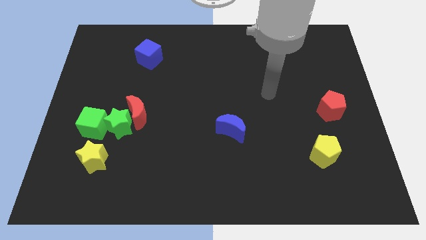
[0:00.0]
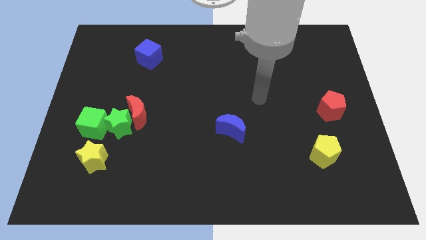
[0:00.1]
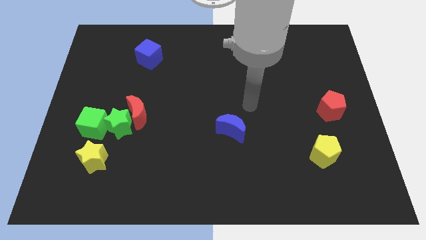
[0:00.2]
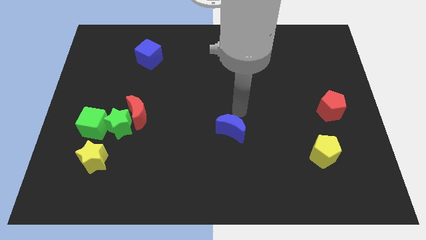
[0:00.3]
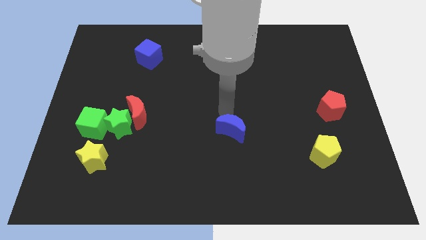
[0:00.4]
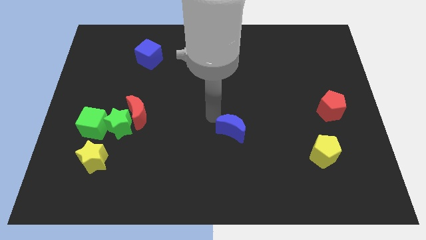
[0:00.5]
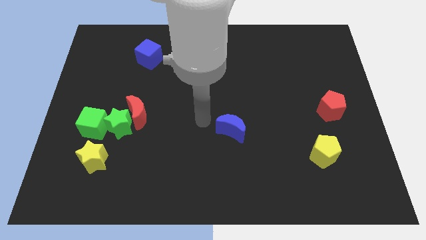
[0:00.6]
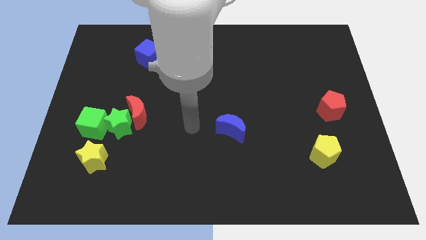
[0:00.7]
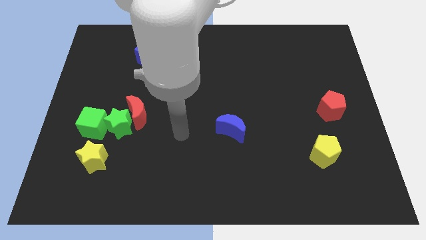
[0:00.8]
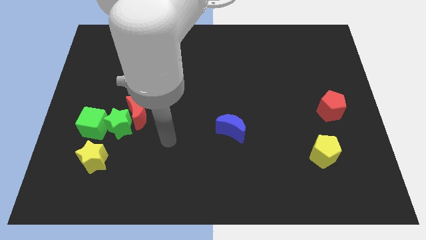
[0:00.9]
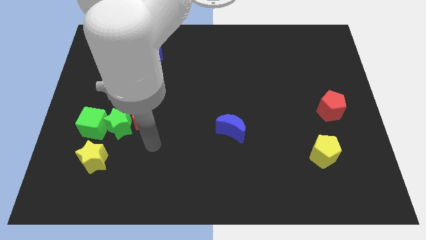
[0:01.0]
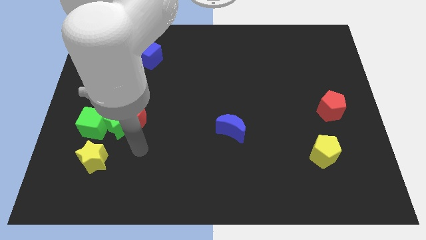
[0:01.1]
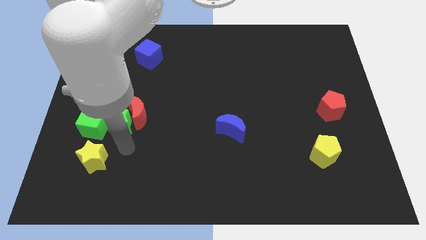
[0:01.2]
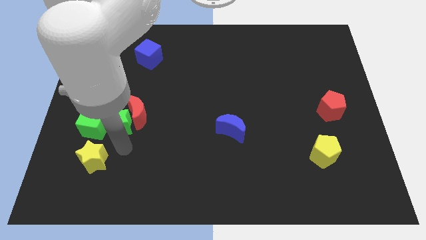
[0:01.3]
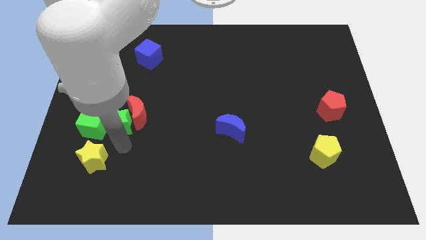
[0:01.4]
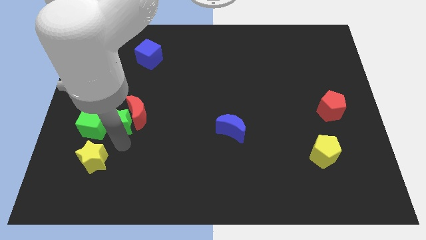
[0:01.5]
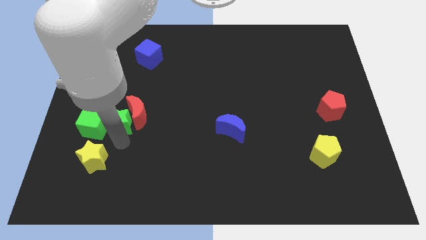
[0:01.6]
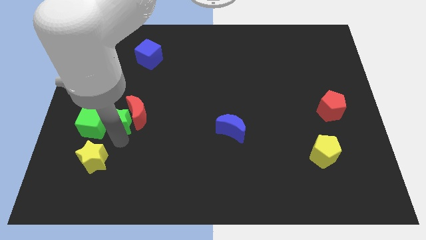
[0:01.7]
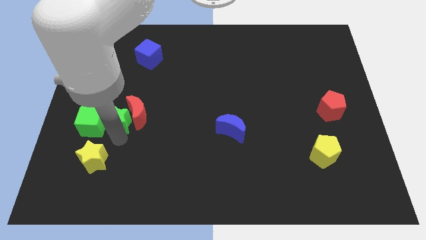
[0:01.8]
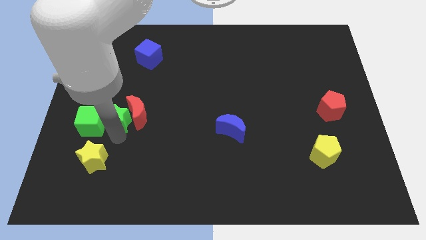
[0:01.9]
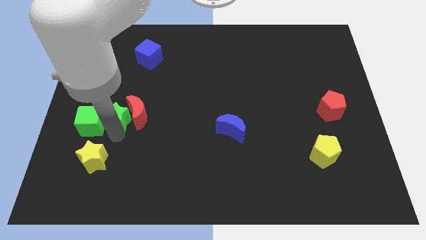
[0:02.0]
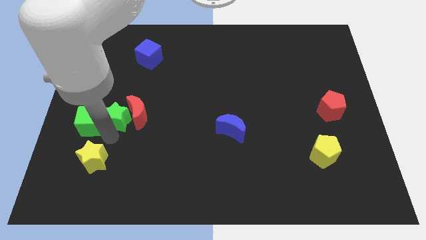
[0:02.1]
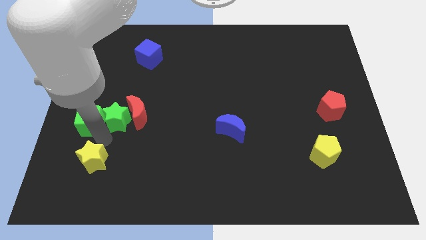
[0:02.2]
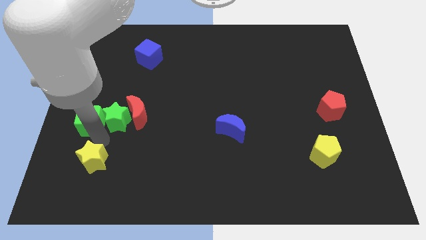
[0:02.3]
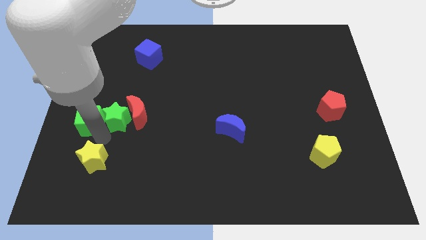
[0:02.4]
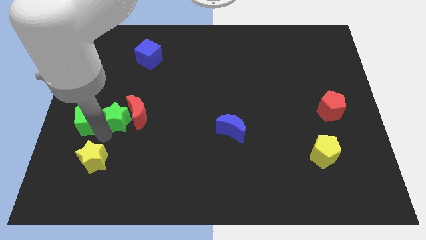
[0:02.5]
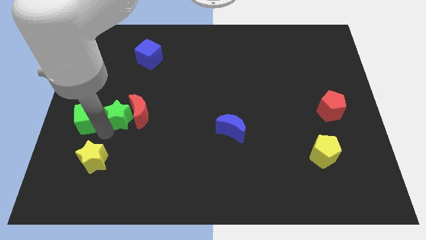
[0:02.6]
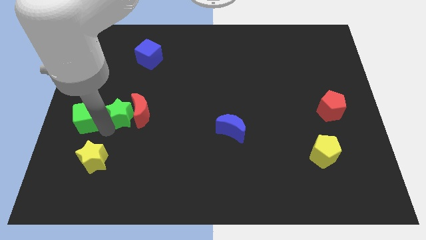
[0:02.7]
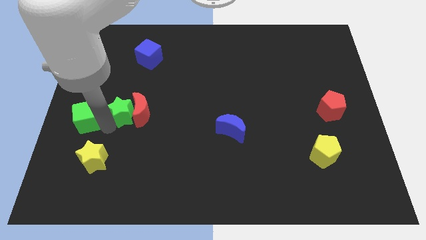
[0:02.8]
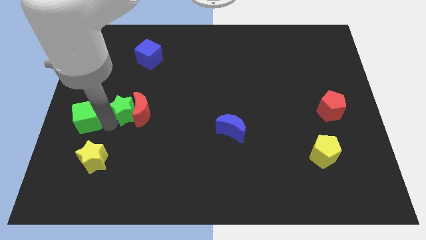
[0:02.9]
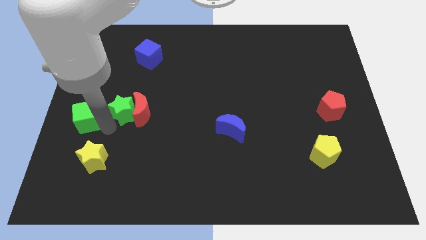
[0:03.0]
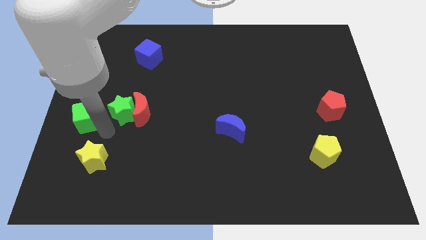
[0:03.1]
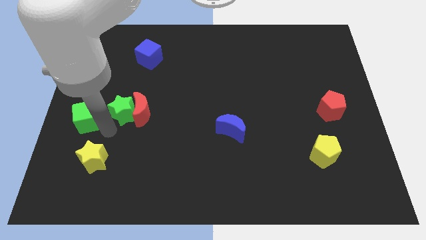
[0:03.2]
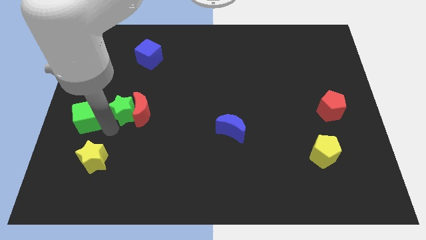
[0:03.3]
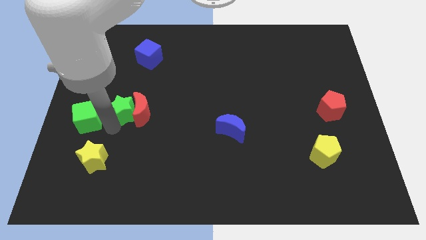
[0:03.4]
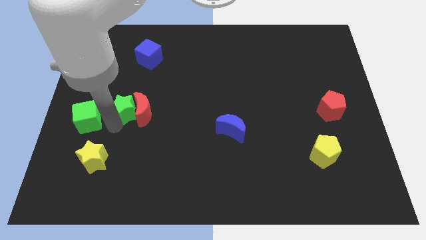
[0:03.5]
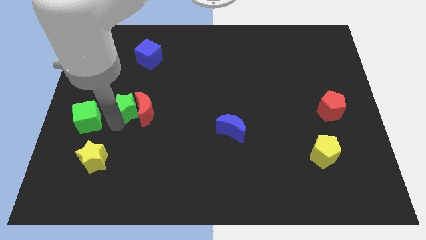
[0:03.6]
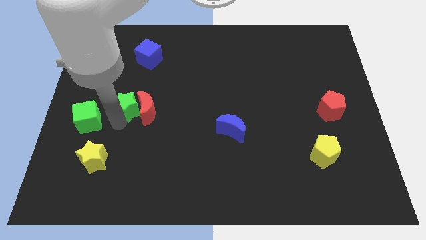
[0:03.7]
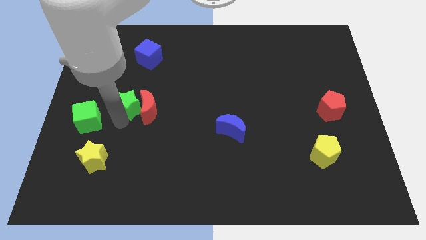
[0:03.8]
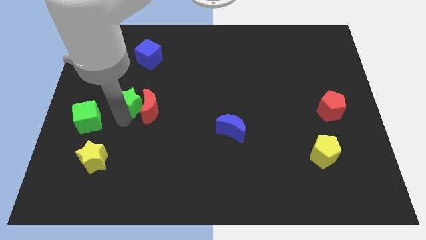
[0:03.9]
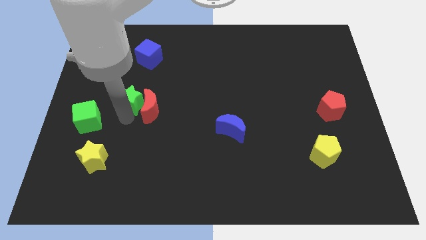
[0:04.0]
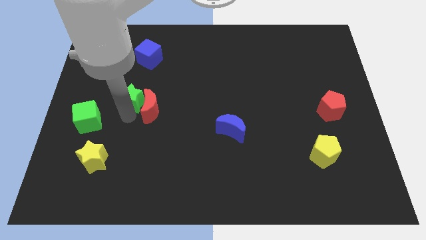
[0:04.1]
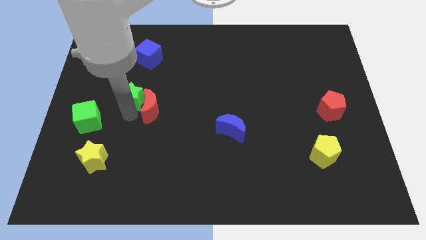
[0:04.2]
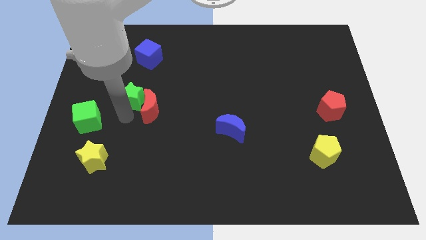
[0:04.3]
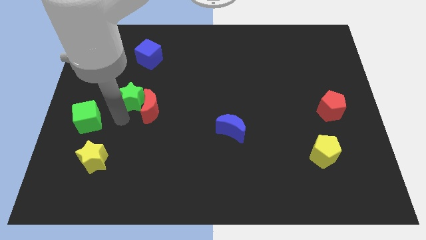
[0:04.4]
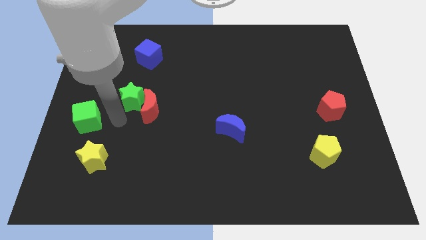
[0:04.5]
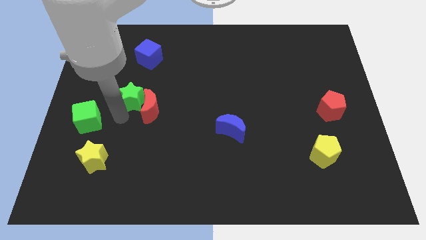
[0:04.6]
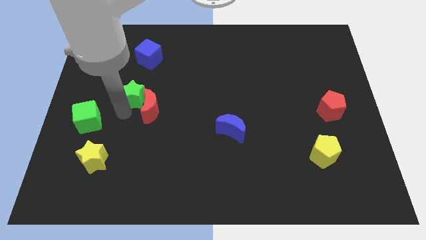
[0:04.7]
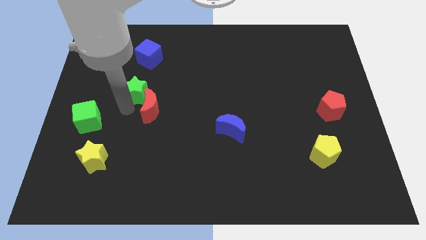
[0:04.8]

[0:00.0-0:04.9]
pull the green star apart from the red moon, green cube, and yellow star

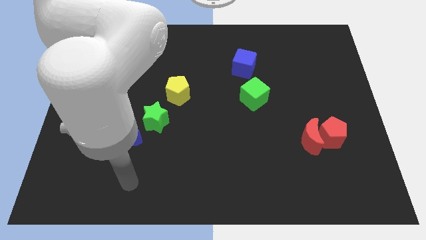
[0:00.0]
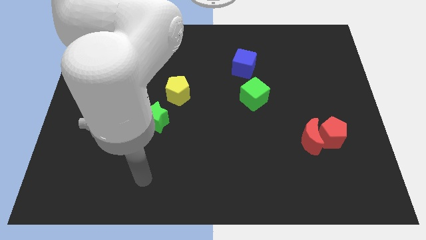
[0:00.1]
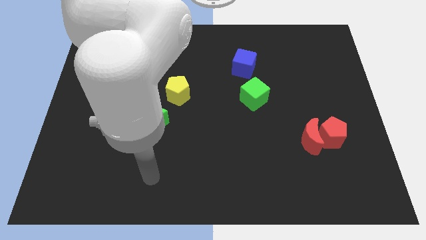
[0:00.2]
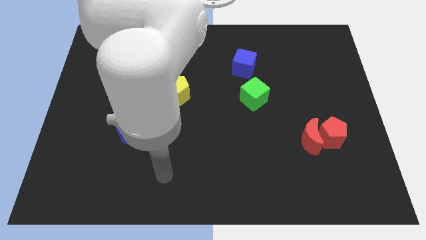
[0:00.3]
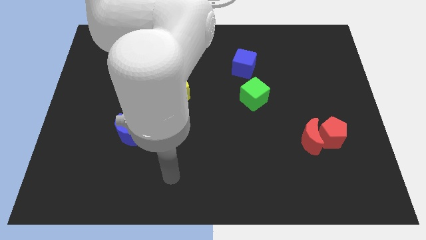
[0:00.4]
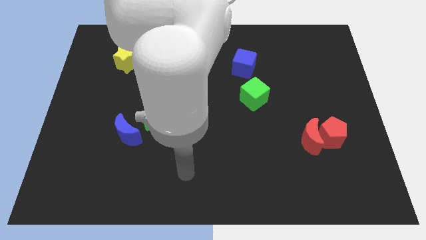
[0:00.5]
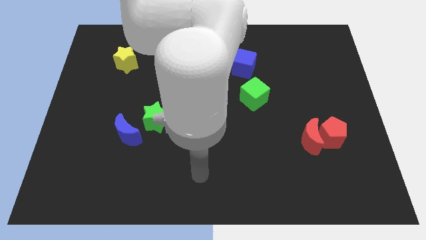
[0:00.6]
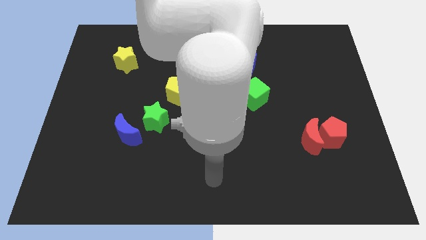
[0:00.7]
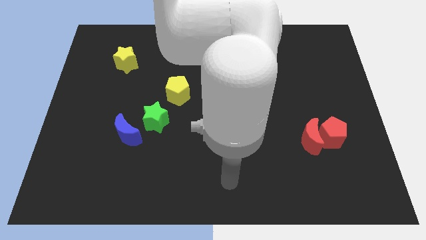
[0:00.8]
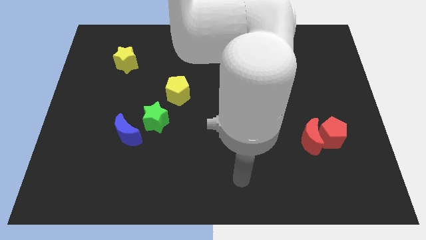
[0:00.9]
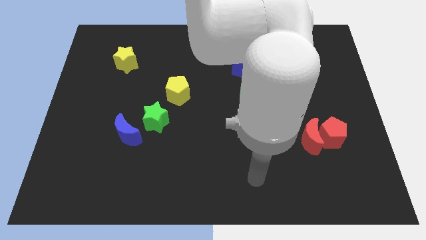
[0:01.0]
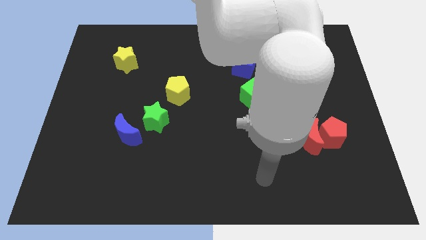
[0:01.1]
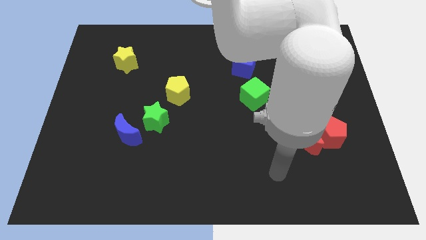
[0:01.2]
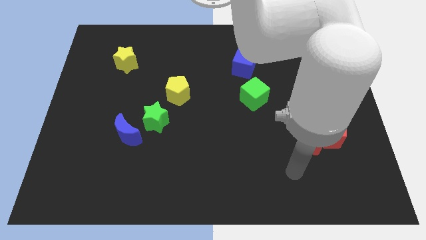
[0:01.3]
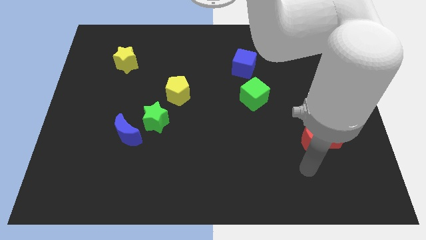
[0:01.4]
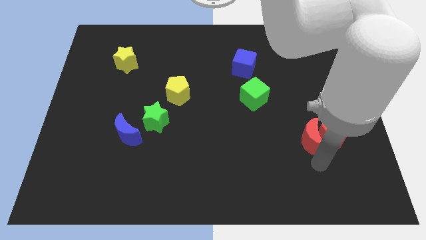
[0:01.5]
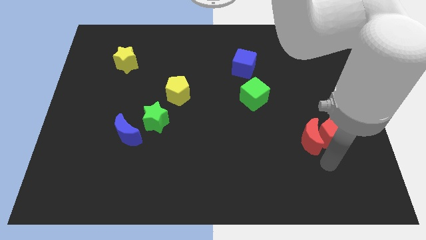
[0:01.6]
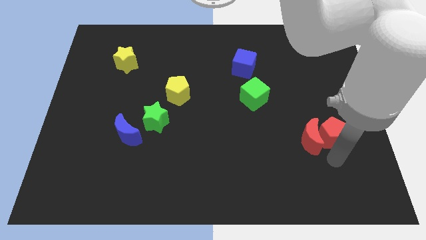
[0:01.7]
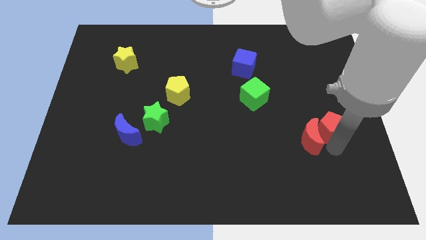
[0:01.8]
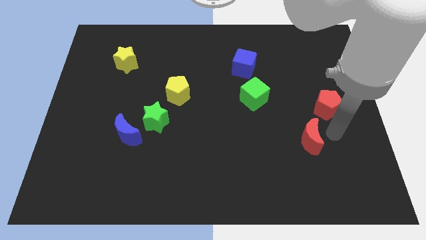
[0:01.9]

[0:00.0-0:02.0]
pull the red moon apart from the red pentagon

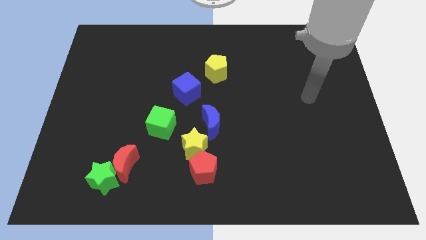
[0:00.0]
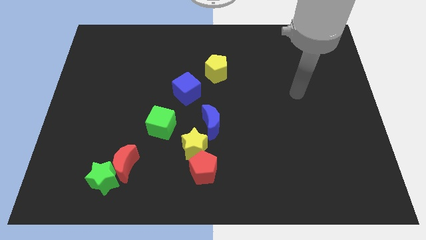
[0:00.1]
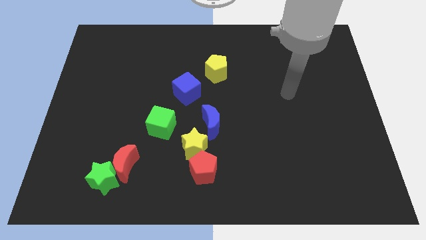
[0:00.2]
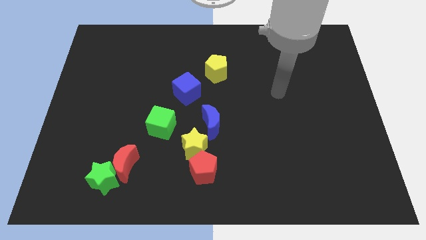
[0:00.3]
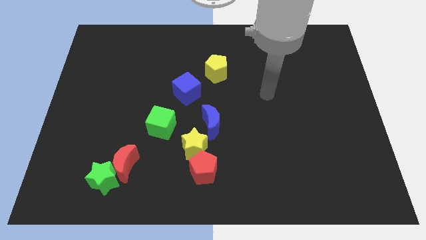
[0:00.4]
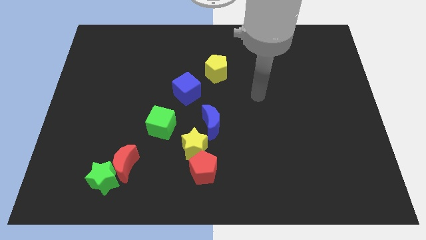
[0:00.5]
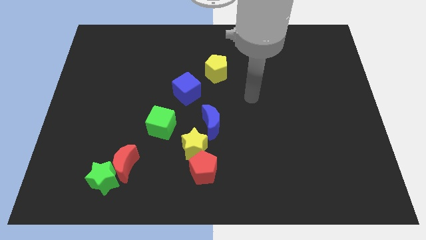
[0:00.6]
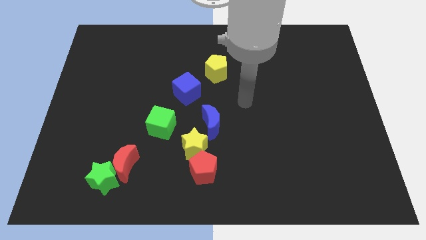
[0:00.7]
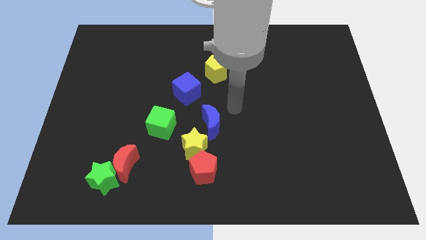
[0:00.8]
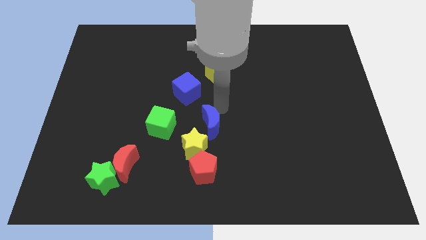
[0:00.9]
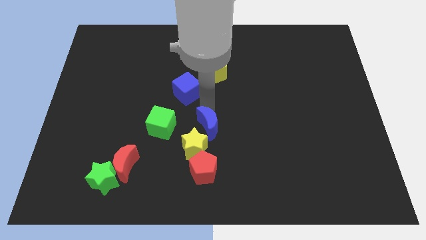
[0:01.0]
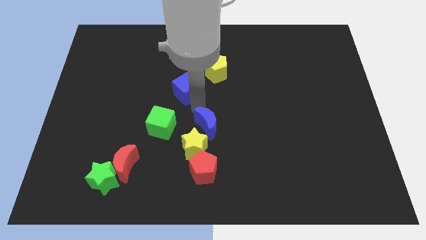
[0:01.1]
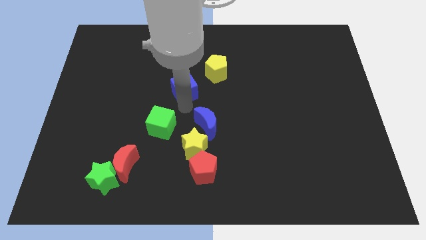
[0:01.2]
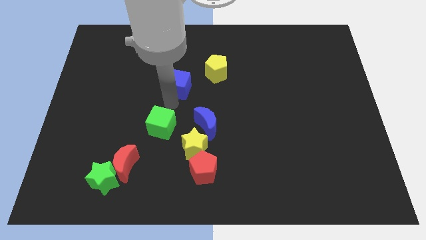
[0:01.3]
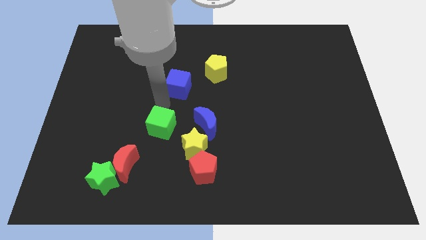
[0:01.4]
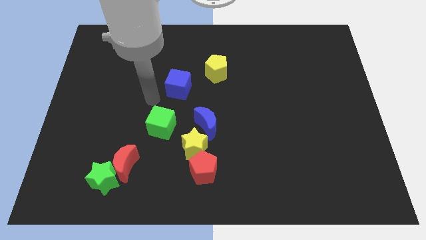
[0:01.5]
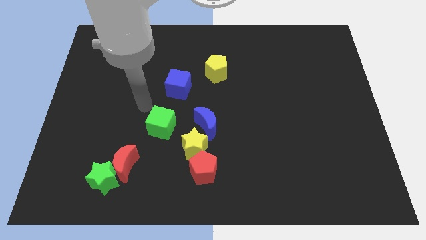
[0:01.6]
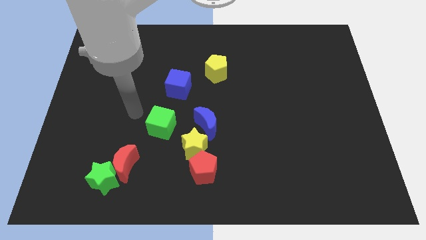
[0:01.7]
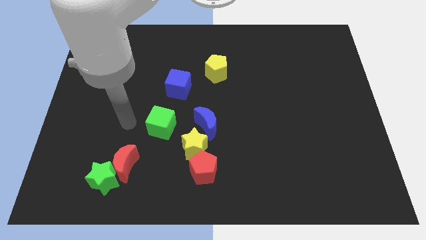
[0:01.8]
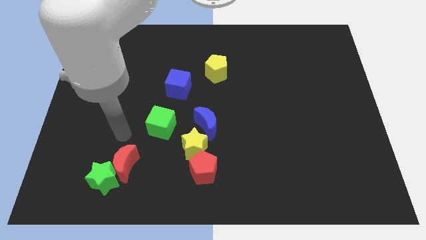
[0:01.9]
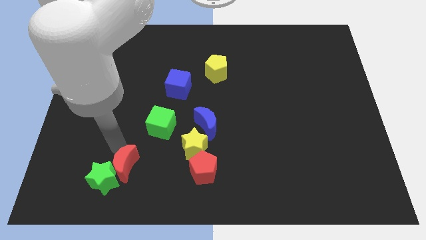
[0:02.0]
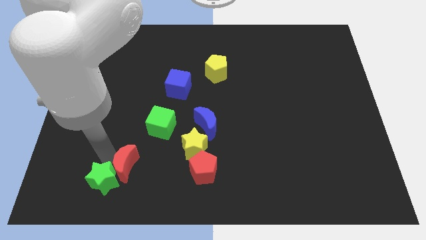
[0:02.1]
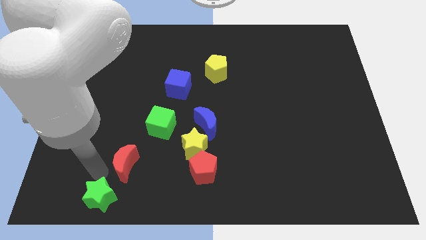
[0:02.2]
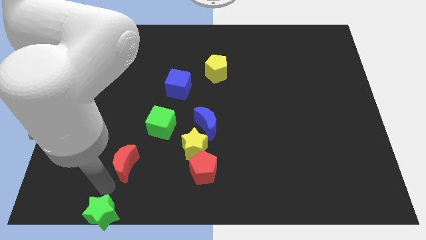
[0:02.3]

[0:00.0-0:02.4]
move the red moon away from the green star

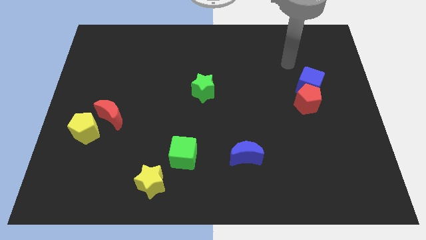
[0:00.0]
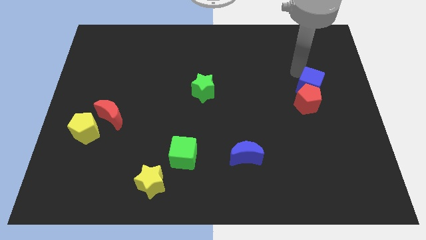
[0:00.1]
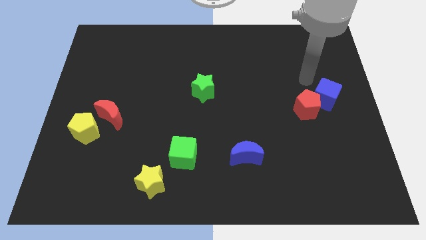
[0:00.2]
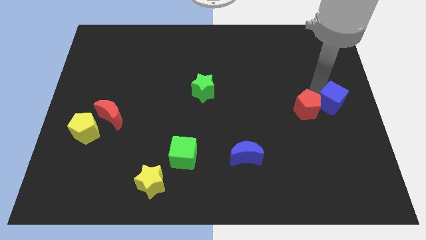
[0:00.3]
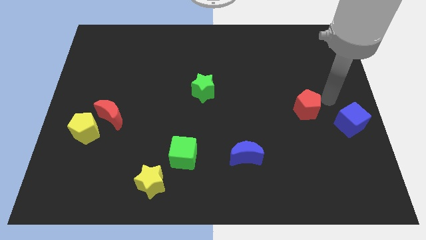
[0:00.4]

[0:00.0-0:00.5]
pull the red pentagon apart from the blue cube
